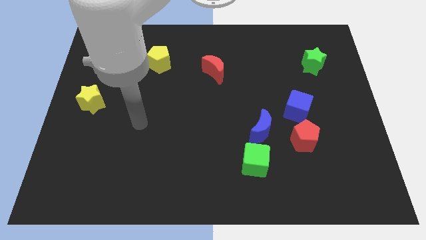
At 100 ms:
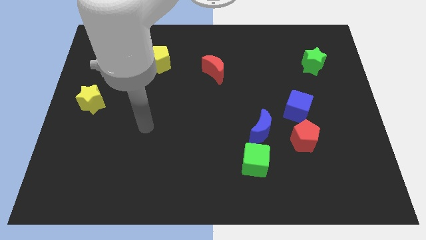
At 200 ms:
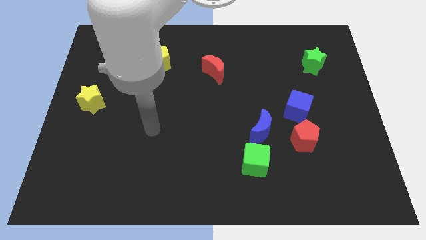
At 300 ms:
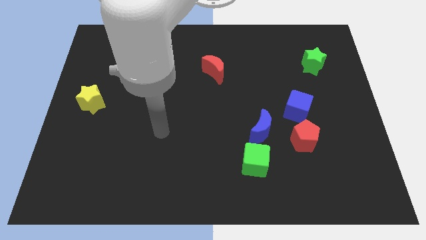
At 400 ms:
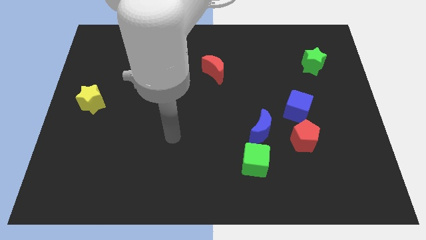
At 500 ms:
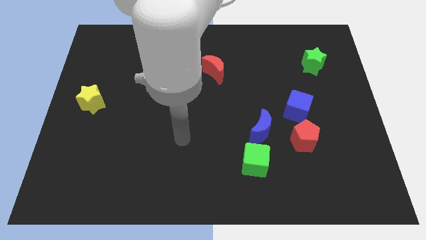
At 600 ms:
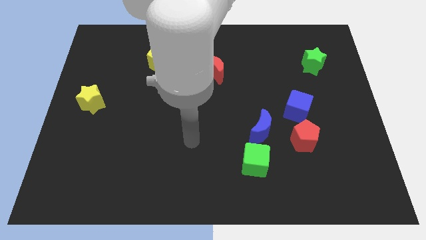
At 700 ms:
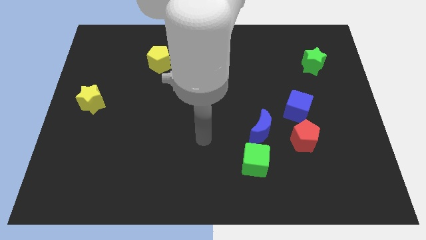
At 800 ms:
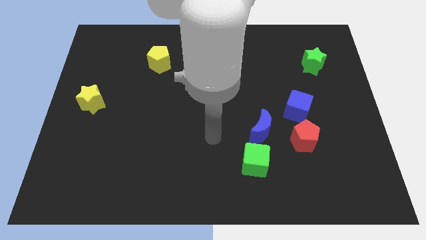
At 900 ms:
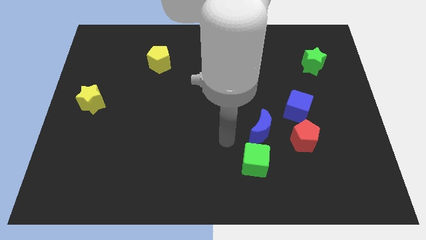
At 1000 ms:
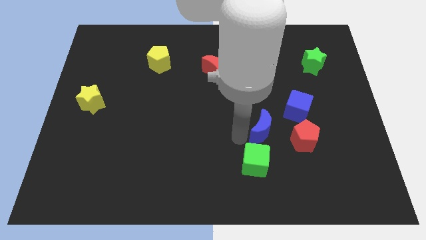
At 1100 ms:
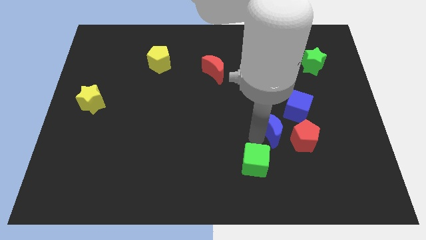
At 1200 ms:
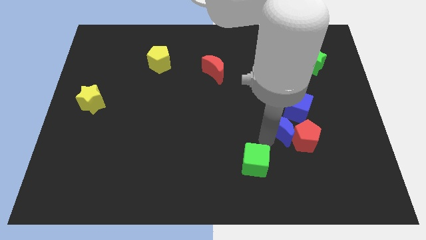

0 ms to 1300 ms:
separate the green cube from the blue moon

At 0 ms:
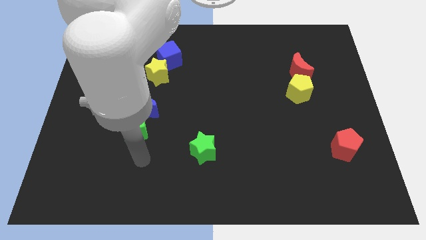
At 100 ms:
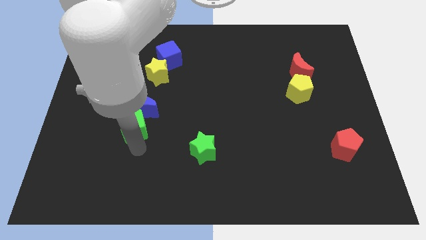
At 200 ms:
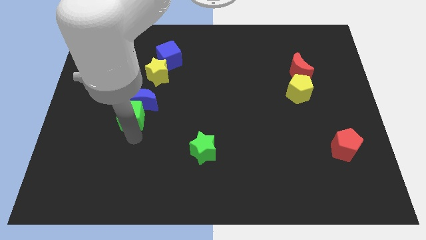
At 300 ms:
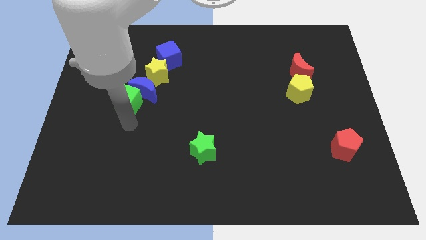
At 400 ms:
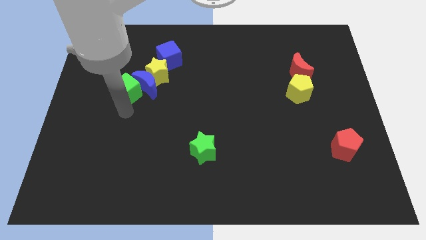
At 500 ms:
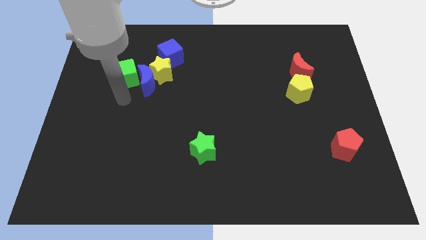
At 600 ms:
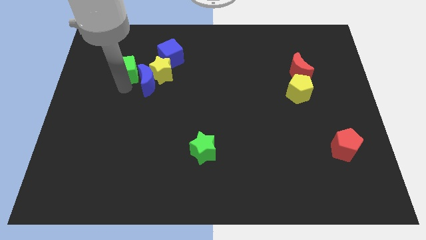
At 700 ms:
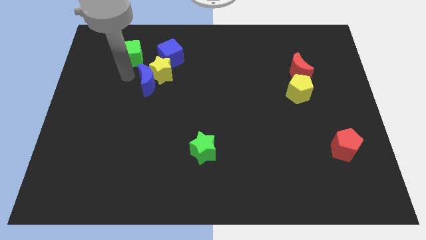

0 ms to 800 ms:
pull the blue moon apart from the green cube

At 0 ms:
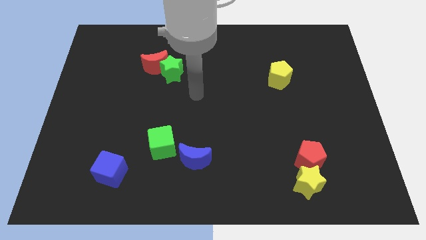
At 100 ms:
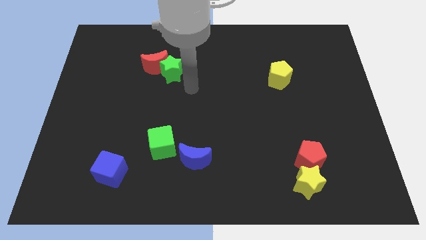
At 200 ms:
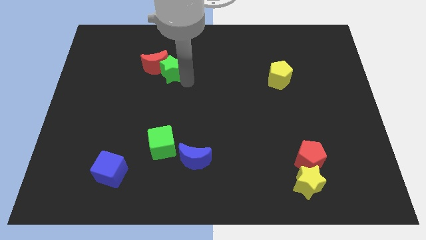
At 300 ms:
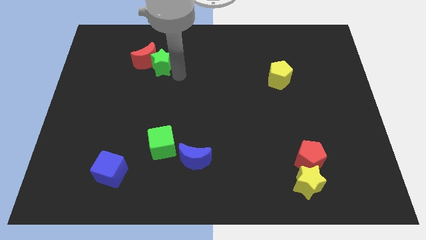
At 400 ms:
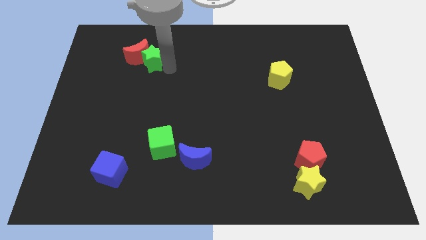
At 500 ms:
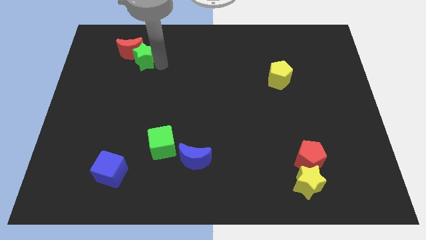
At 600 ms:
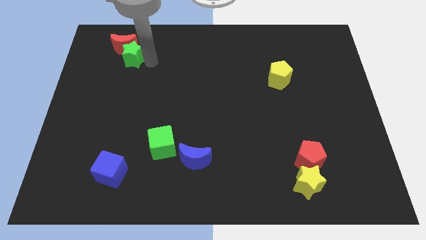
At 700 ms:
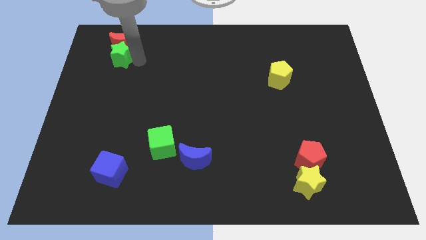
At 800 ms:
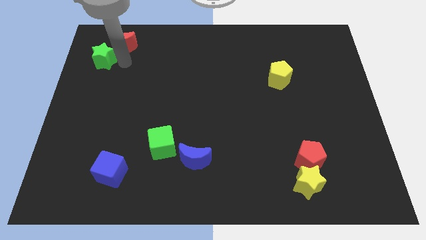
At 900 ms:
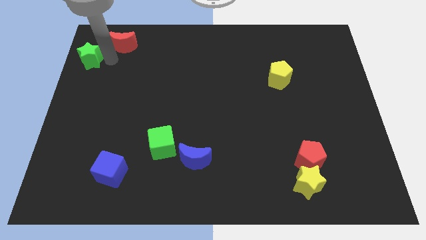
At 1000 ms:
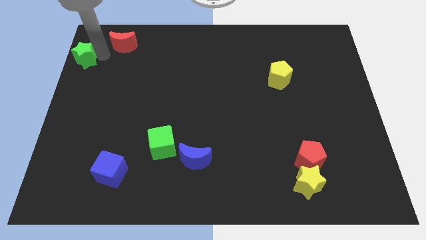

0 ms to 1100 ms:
move the red moon away from the green star

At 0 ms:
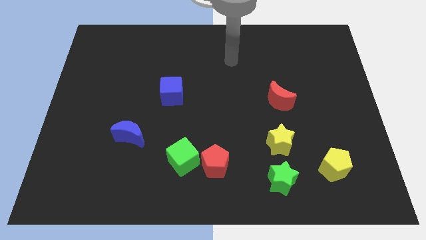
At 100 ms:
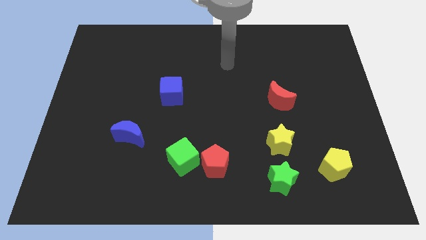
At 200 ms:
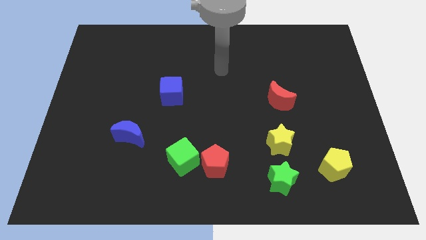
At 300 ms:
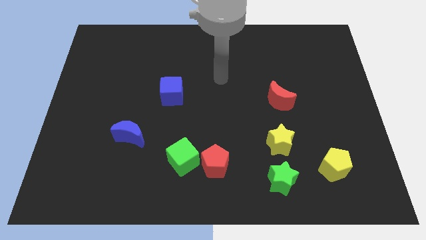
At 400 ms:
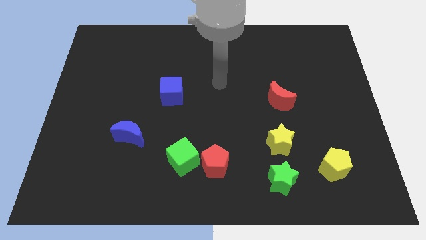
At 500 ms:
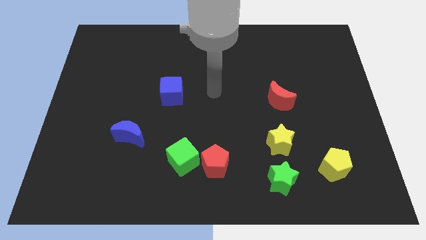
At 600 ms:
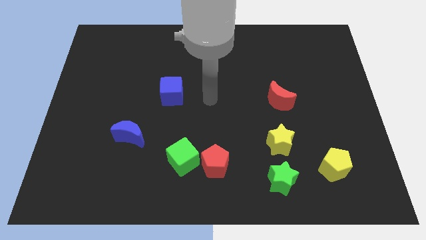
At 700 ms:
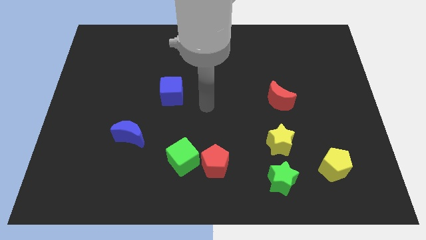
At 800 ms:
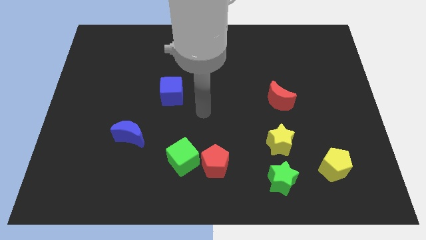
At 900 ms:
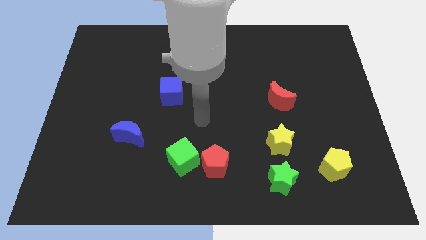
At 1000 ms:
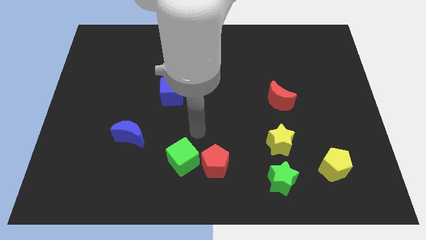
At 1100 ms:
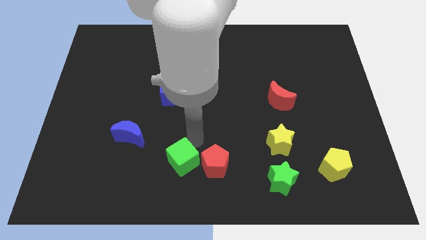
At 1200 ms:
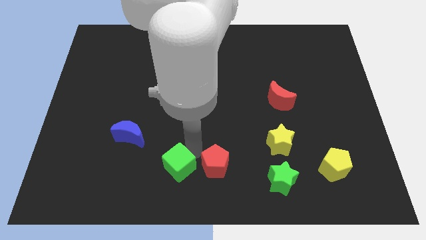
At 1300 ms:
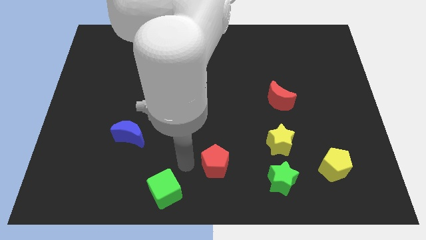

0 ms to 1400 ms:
move the red pentagon away from the green cube

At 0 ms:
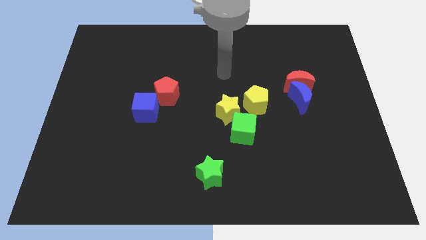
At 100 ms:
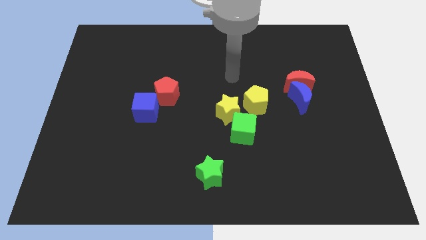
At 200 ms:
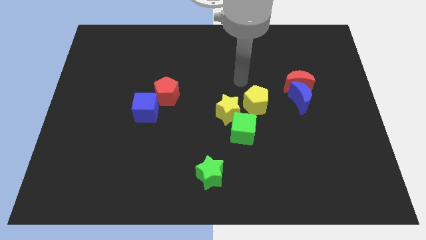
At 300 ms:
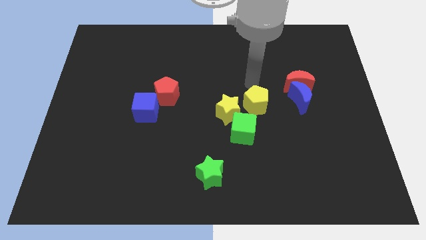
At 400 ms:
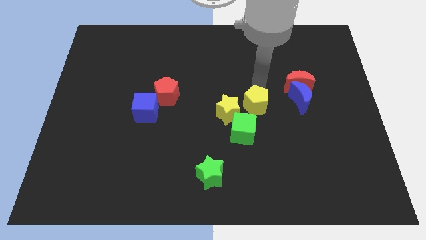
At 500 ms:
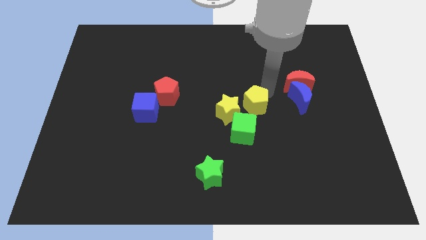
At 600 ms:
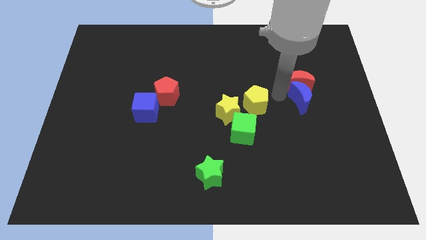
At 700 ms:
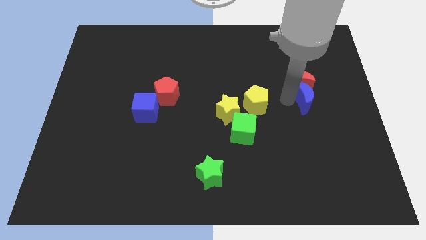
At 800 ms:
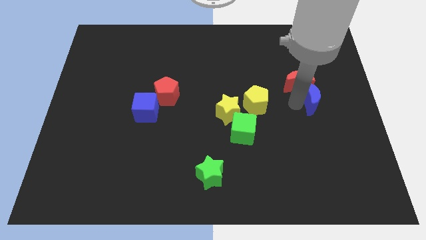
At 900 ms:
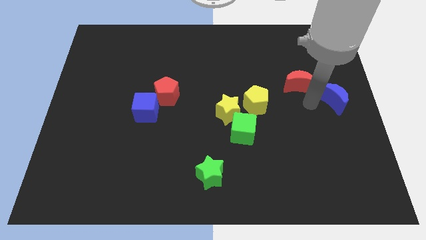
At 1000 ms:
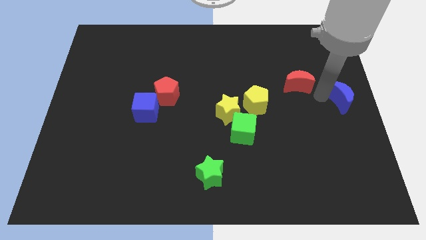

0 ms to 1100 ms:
move the red moon away from the blue moon

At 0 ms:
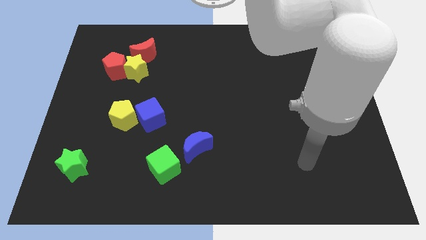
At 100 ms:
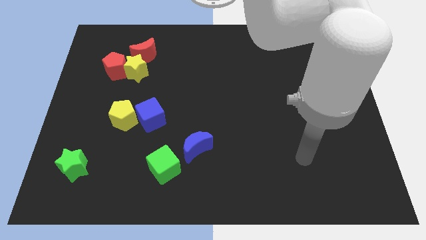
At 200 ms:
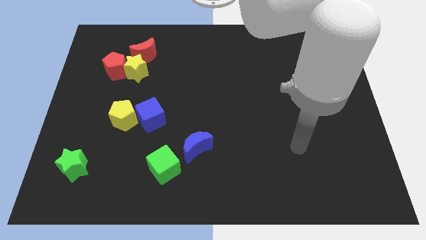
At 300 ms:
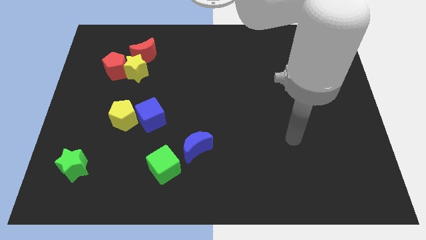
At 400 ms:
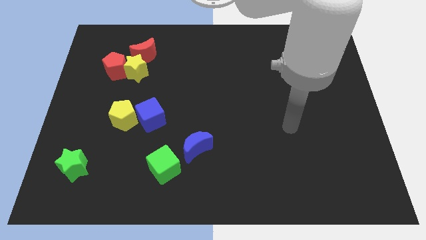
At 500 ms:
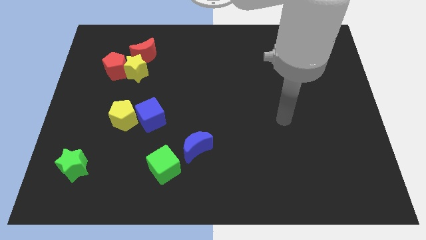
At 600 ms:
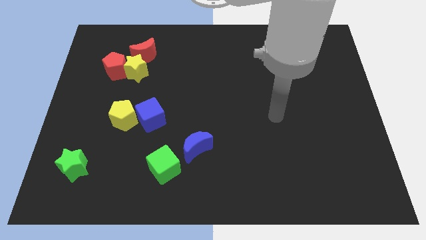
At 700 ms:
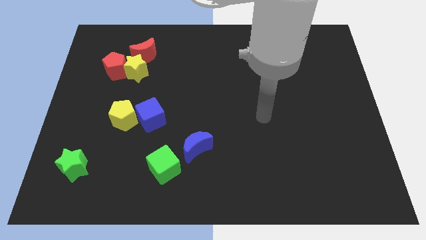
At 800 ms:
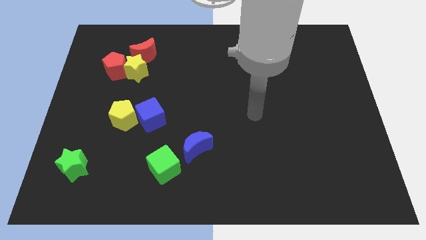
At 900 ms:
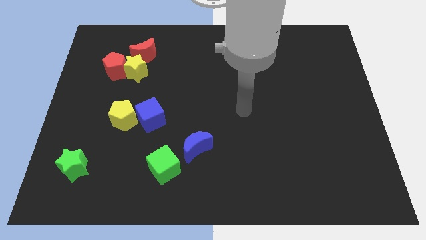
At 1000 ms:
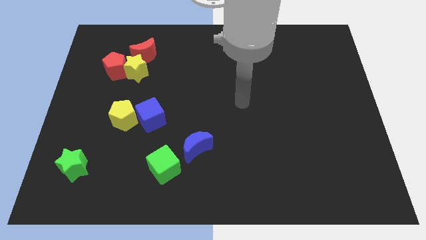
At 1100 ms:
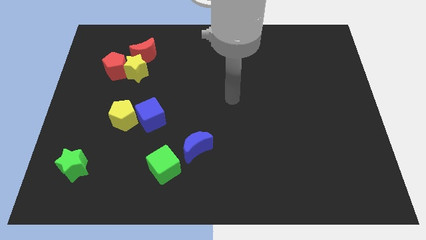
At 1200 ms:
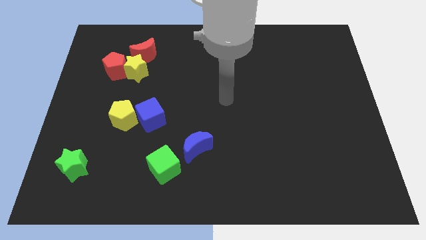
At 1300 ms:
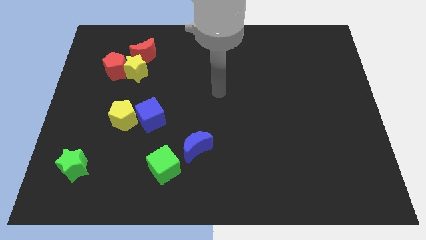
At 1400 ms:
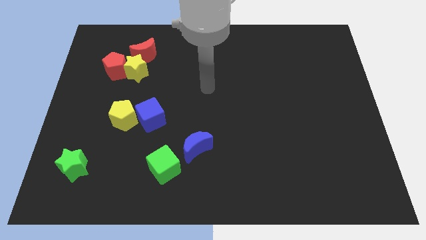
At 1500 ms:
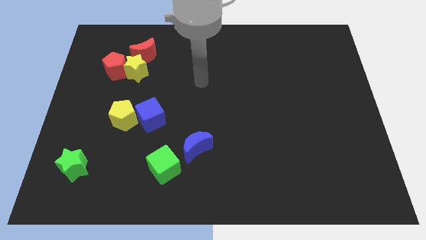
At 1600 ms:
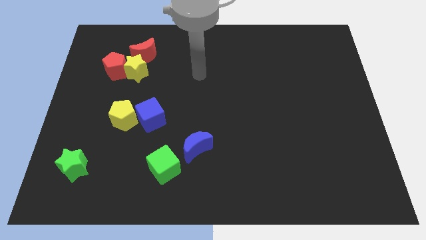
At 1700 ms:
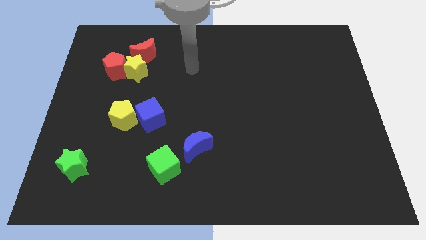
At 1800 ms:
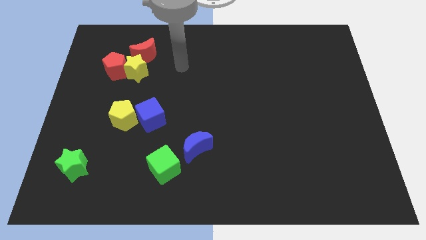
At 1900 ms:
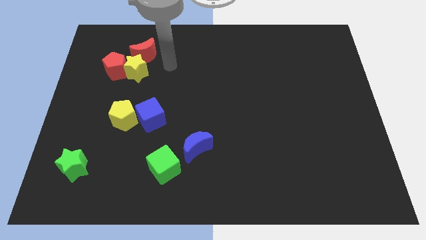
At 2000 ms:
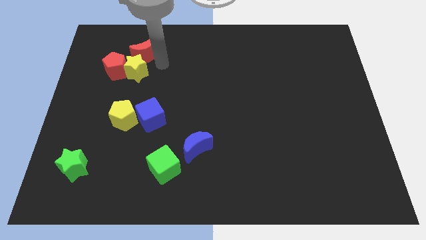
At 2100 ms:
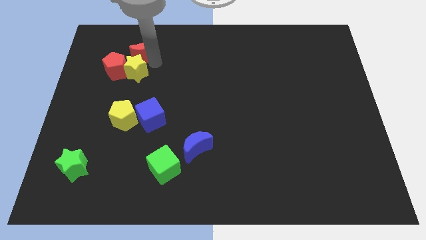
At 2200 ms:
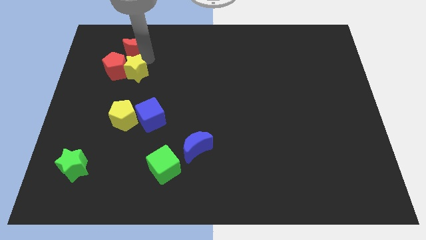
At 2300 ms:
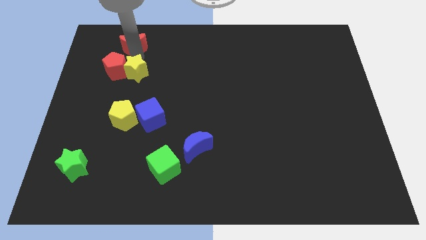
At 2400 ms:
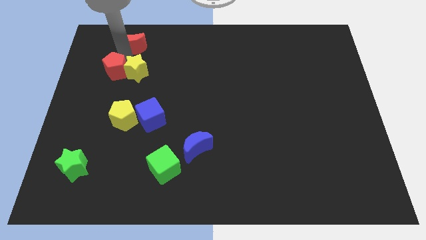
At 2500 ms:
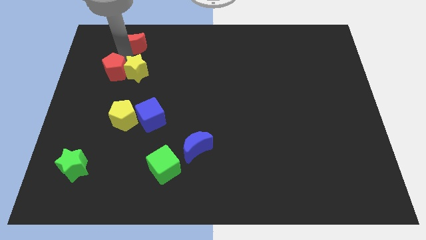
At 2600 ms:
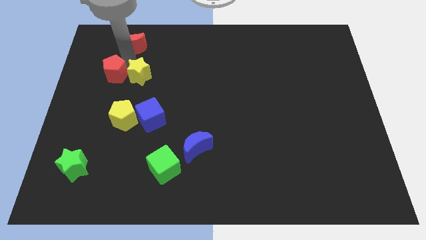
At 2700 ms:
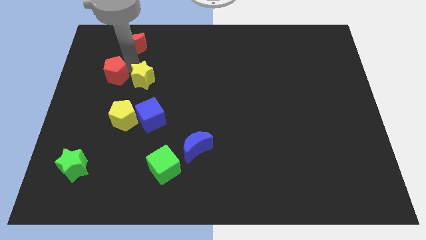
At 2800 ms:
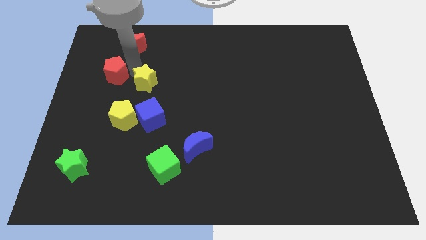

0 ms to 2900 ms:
move the yellow star away from the red pentagon and red moon

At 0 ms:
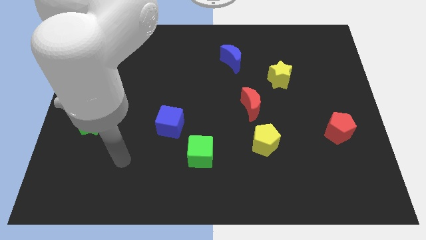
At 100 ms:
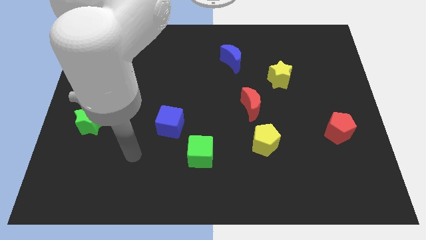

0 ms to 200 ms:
separate the red moon from the yellow pentagon

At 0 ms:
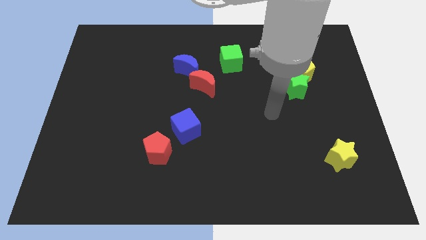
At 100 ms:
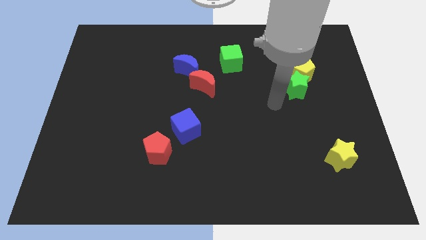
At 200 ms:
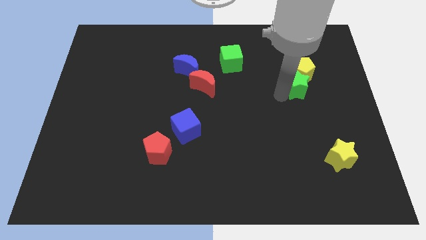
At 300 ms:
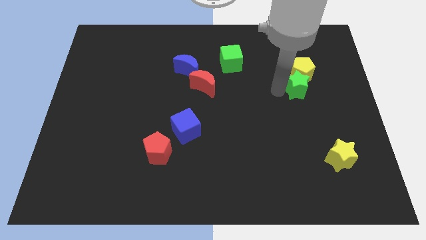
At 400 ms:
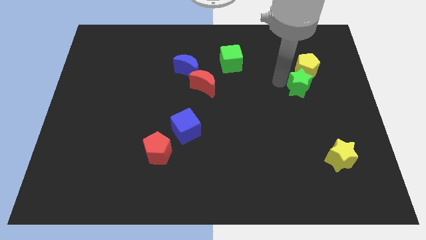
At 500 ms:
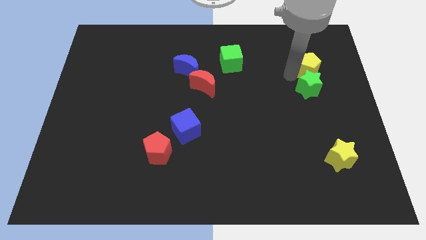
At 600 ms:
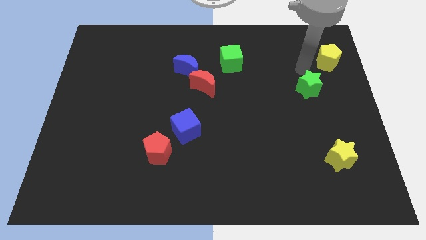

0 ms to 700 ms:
separate the green star from the yellow pentagon
